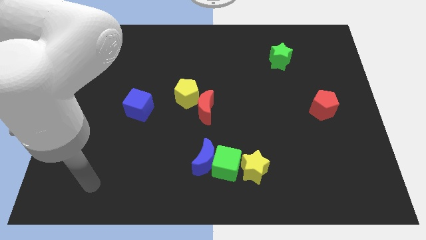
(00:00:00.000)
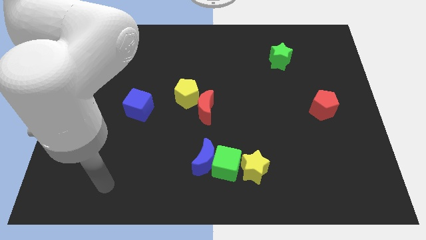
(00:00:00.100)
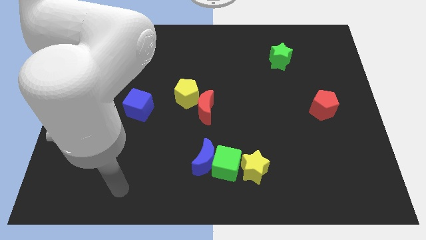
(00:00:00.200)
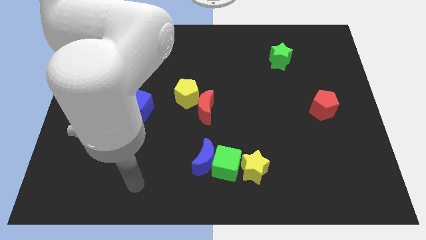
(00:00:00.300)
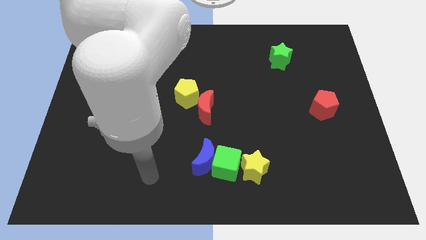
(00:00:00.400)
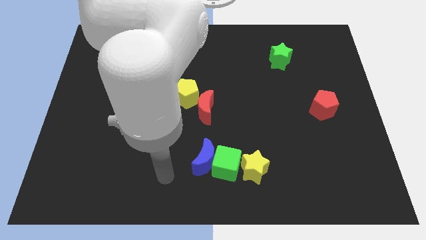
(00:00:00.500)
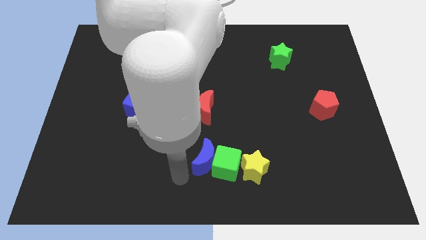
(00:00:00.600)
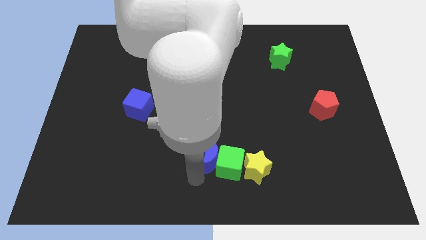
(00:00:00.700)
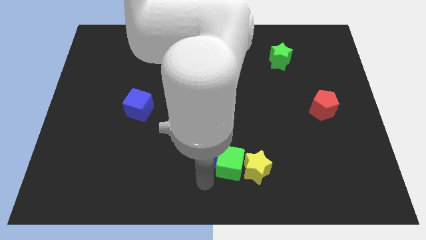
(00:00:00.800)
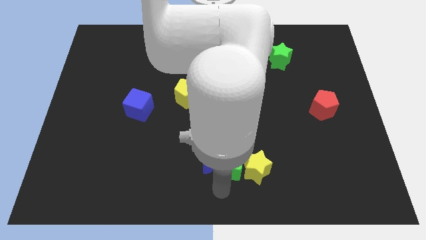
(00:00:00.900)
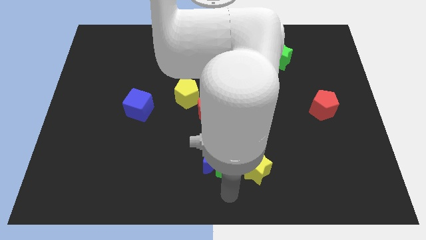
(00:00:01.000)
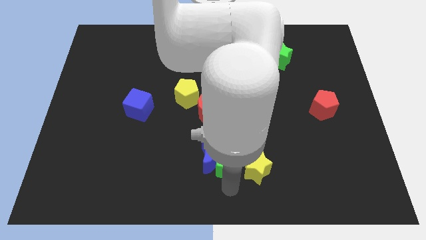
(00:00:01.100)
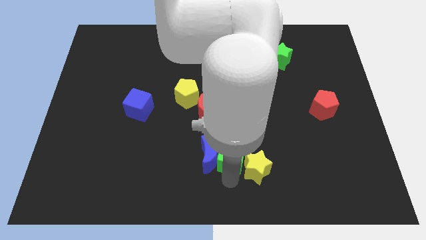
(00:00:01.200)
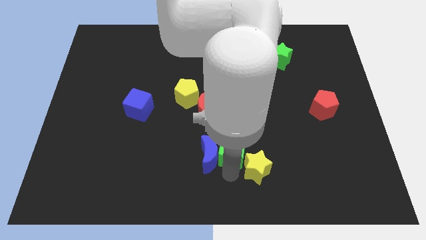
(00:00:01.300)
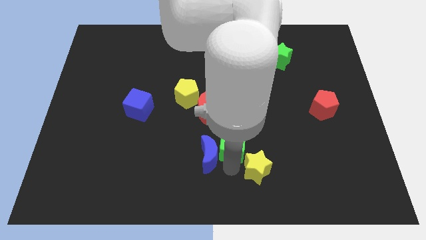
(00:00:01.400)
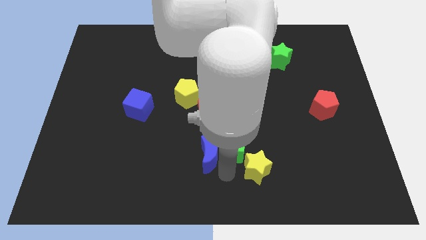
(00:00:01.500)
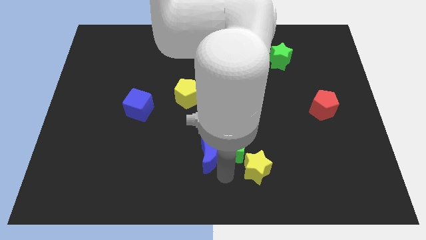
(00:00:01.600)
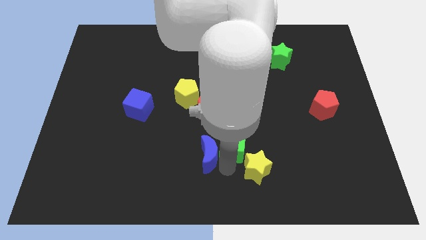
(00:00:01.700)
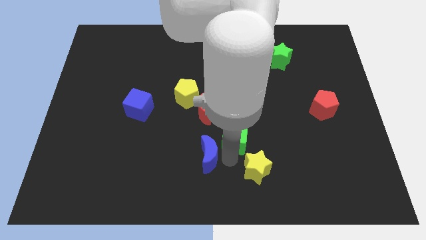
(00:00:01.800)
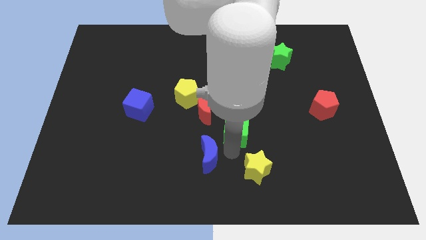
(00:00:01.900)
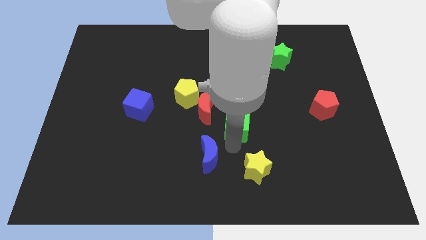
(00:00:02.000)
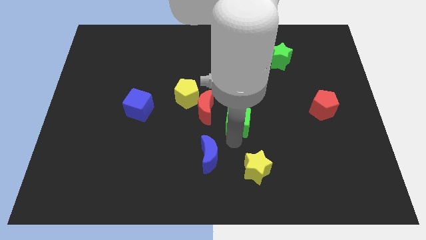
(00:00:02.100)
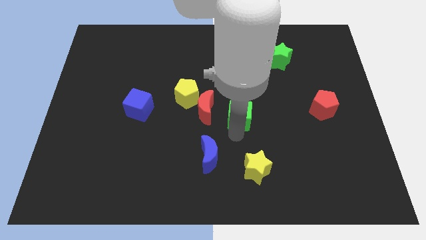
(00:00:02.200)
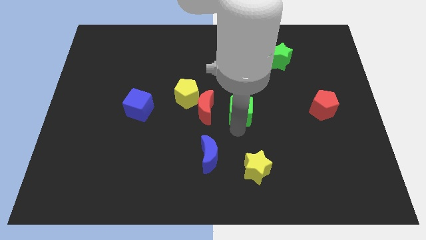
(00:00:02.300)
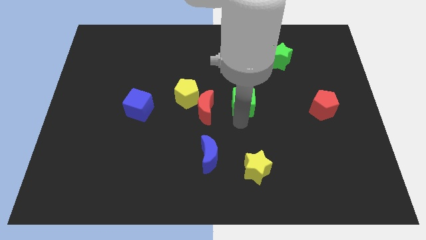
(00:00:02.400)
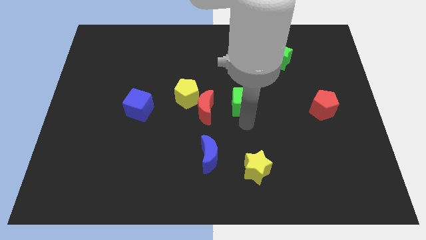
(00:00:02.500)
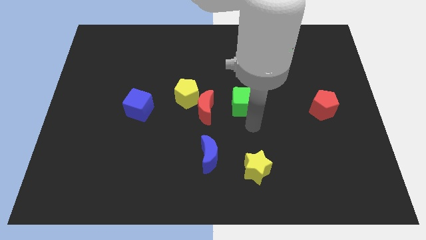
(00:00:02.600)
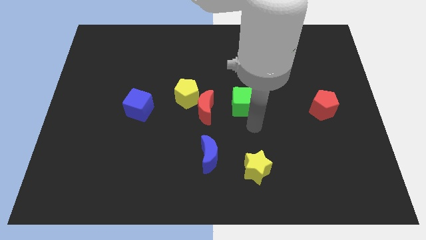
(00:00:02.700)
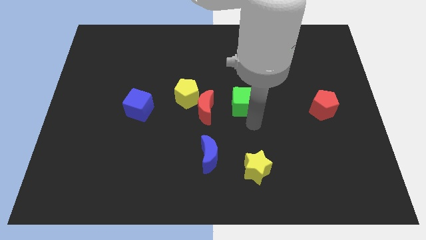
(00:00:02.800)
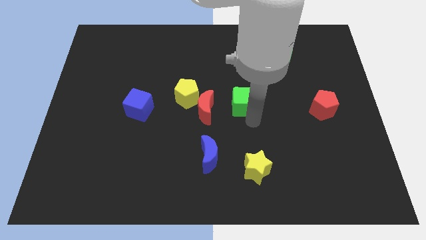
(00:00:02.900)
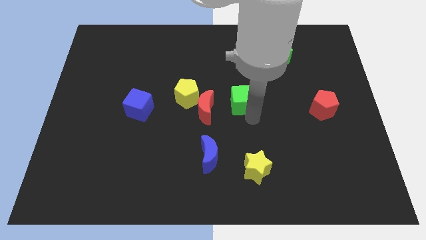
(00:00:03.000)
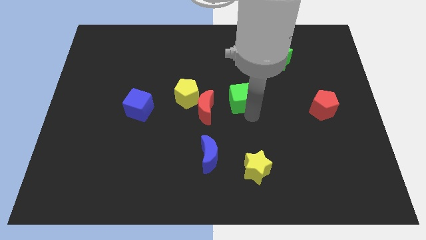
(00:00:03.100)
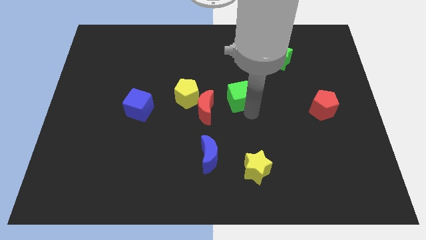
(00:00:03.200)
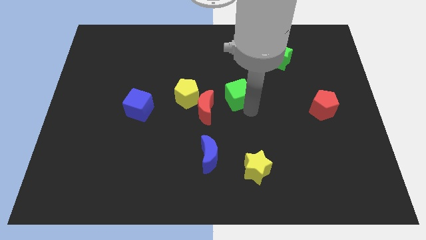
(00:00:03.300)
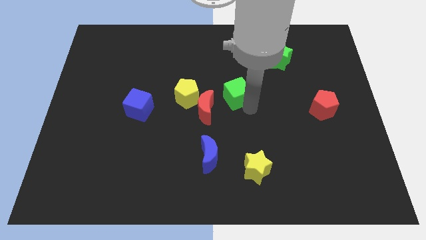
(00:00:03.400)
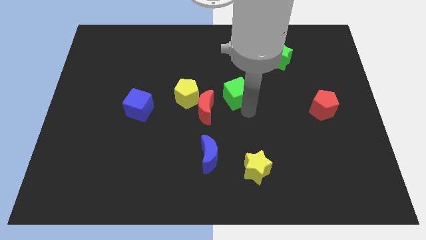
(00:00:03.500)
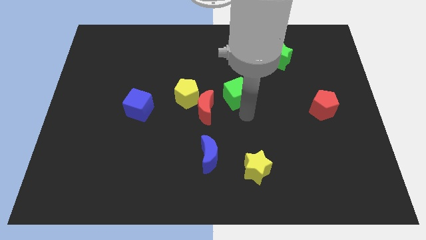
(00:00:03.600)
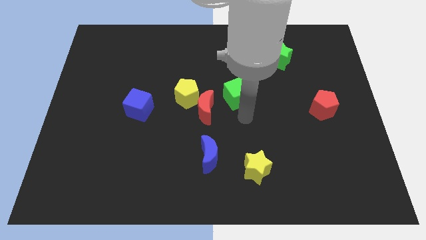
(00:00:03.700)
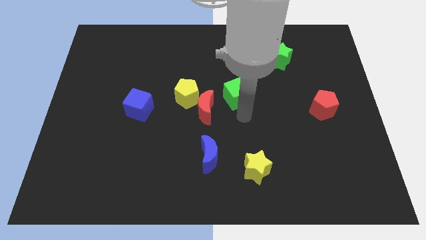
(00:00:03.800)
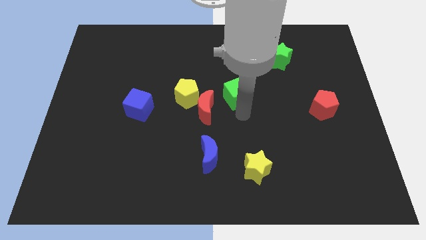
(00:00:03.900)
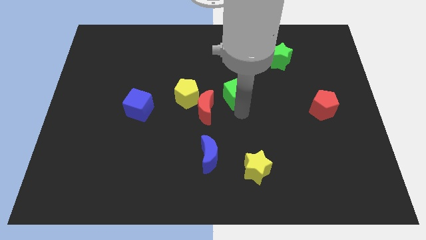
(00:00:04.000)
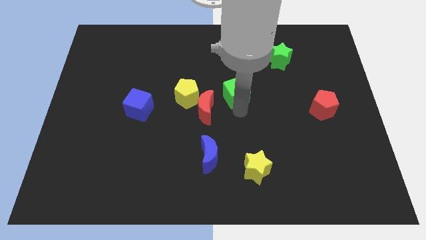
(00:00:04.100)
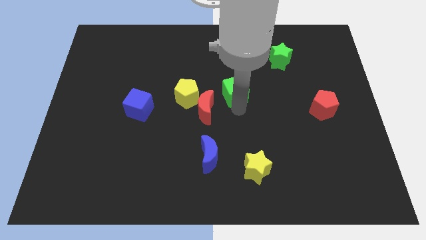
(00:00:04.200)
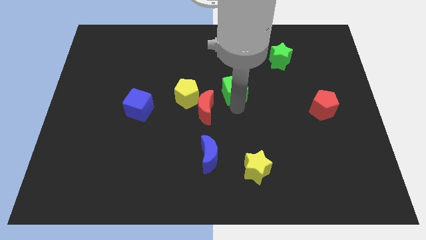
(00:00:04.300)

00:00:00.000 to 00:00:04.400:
slide the green cube up

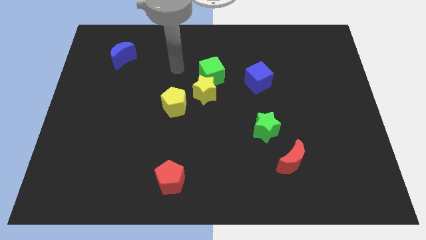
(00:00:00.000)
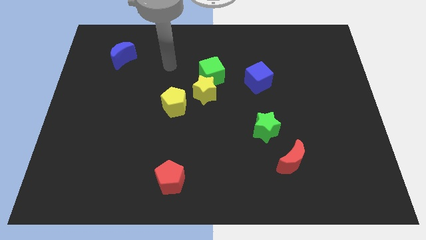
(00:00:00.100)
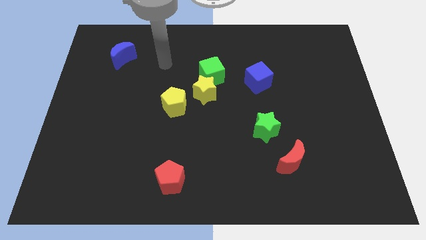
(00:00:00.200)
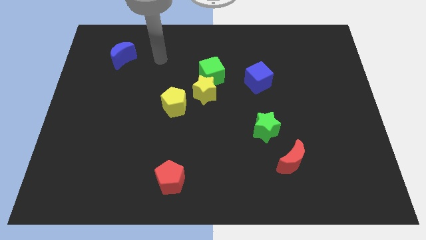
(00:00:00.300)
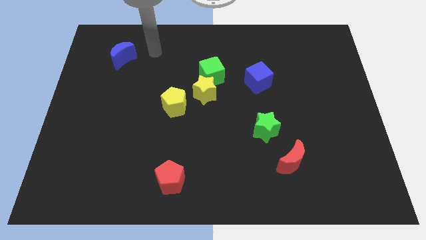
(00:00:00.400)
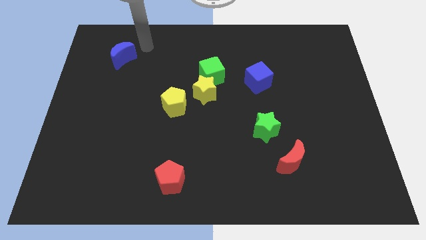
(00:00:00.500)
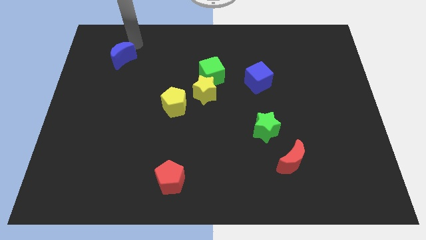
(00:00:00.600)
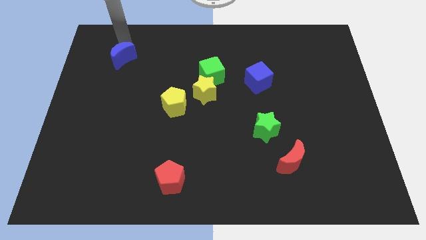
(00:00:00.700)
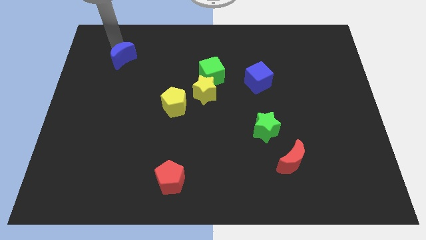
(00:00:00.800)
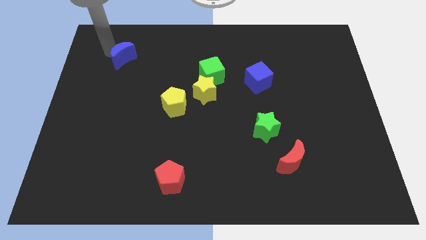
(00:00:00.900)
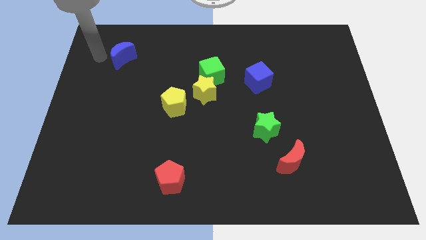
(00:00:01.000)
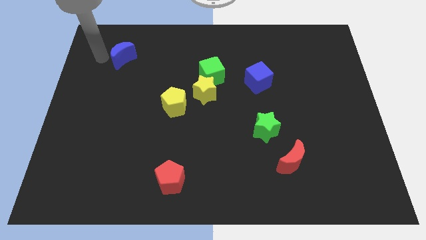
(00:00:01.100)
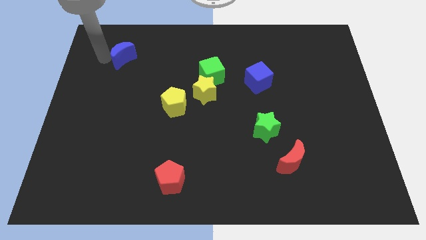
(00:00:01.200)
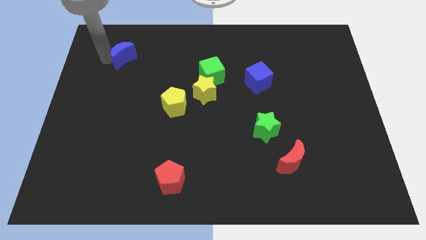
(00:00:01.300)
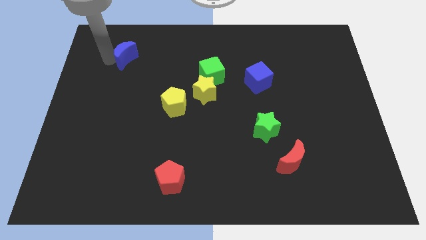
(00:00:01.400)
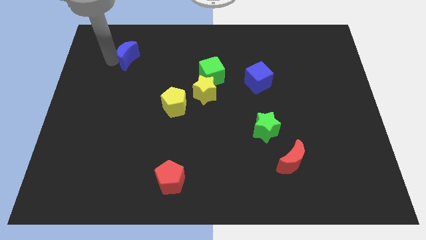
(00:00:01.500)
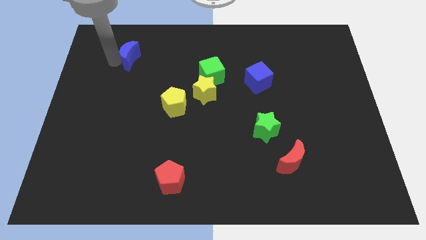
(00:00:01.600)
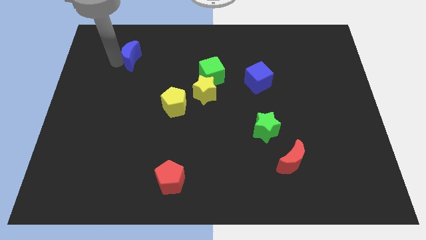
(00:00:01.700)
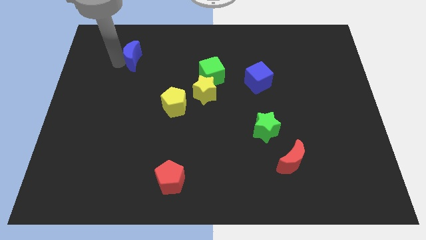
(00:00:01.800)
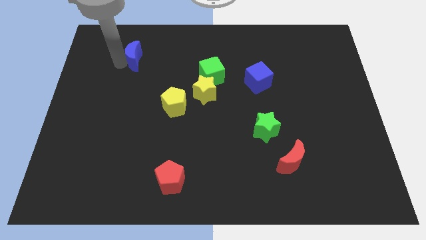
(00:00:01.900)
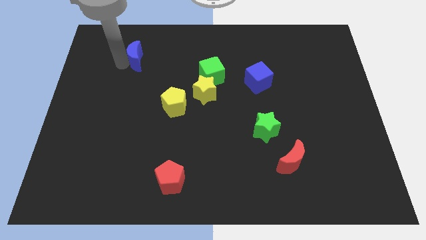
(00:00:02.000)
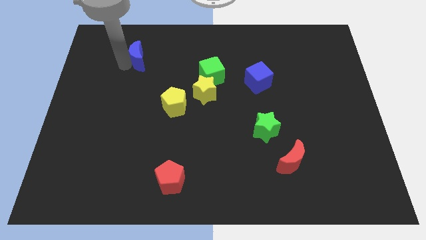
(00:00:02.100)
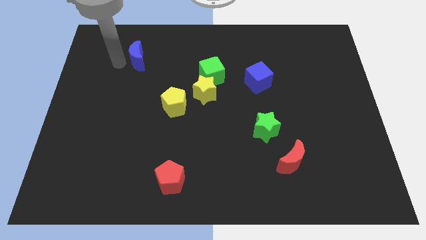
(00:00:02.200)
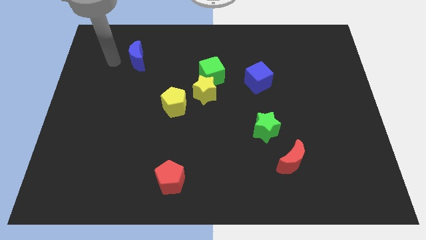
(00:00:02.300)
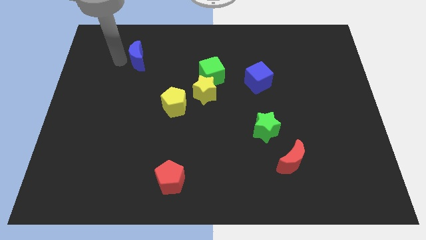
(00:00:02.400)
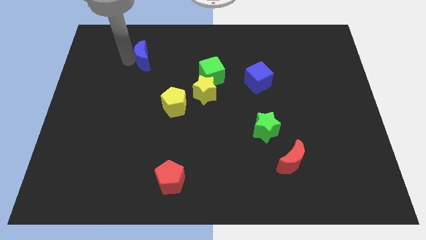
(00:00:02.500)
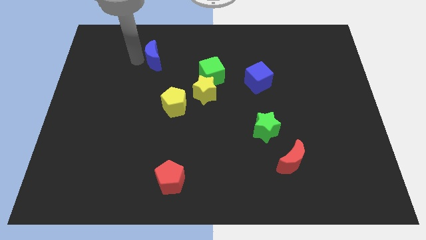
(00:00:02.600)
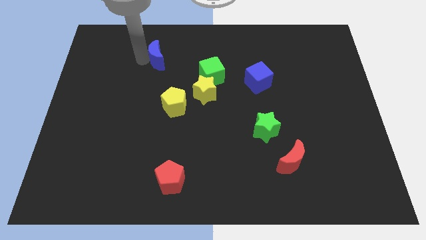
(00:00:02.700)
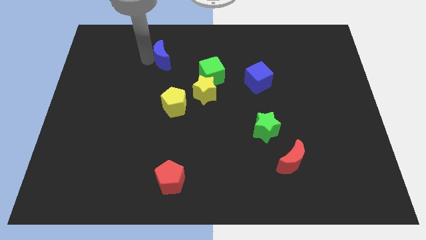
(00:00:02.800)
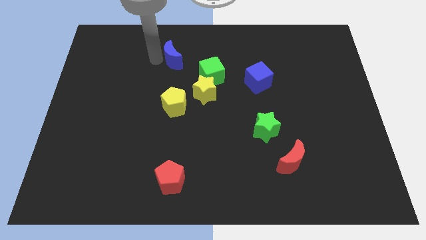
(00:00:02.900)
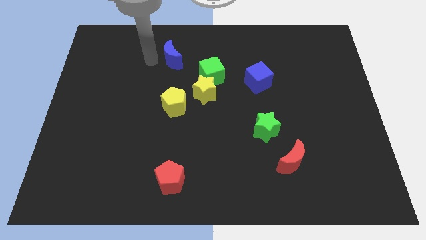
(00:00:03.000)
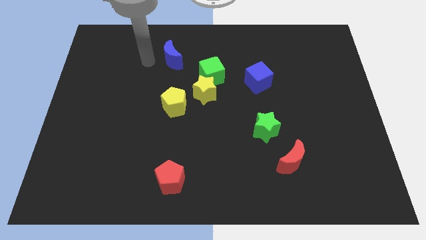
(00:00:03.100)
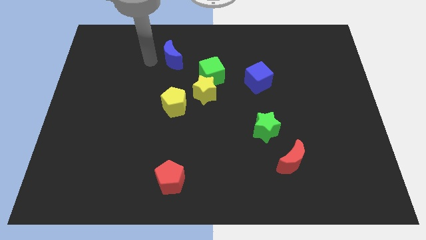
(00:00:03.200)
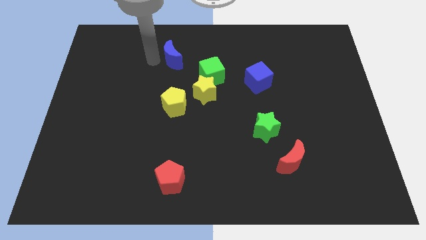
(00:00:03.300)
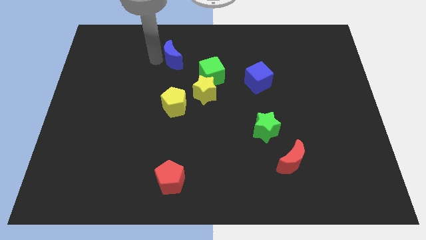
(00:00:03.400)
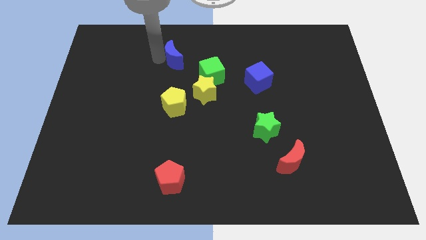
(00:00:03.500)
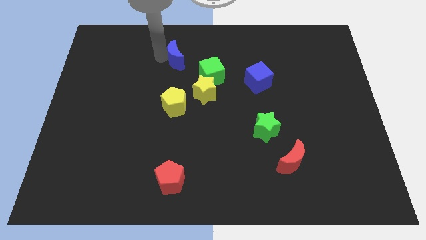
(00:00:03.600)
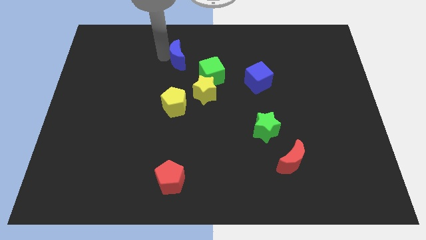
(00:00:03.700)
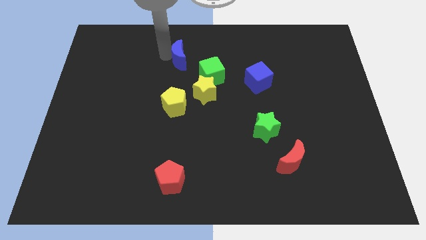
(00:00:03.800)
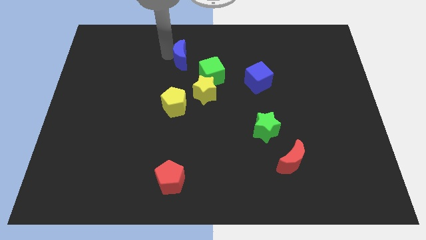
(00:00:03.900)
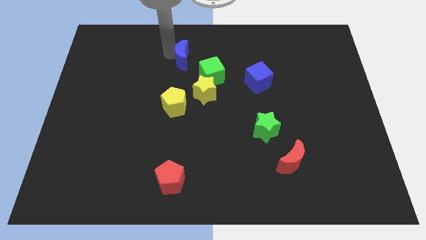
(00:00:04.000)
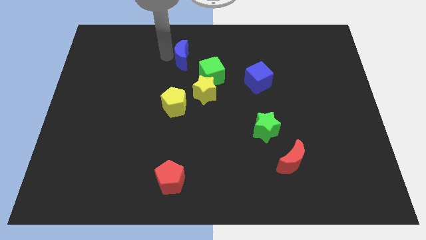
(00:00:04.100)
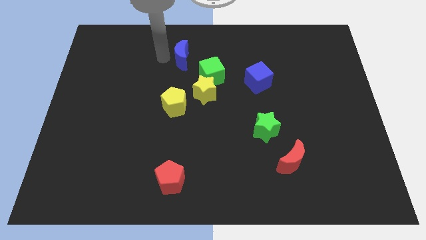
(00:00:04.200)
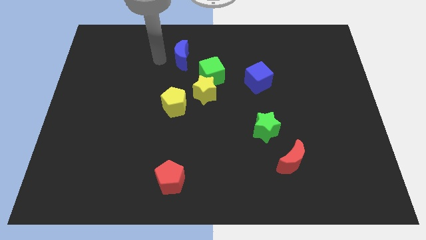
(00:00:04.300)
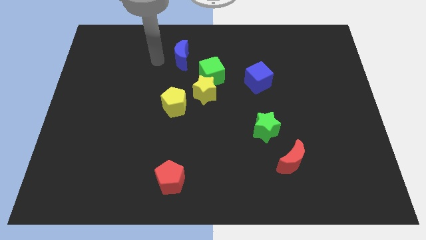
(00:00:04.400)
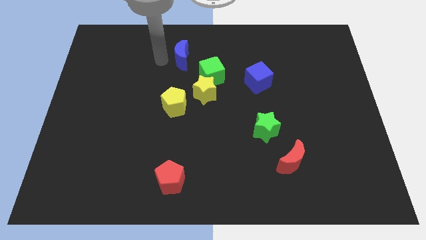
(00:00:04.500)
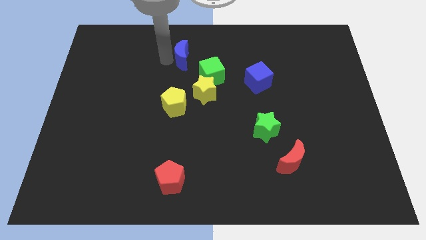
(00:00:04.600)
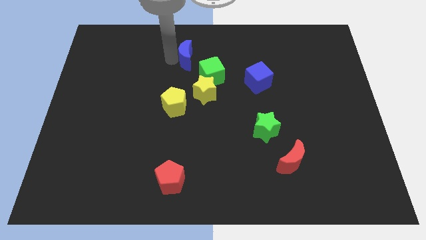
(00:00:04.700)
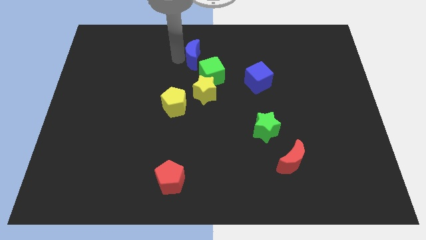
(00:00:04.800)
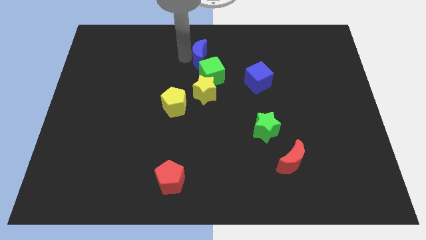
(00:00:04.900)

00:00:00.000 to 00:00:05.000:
move the blue moon right
